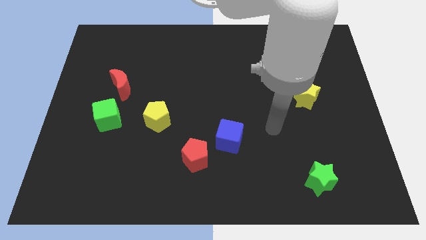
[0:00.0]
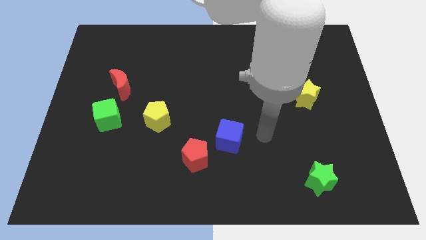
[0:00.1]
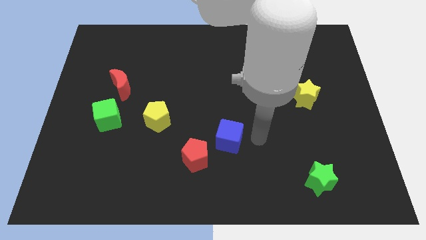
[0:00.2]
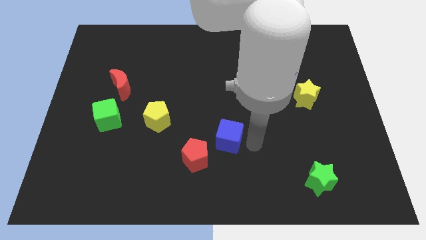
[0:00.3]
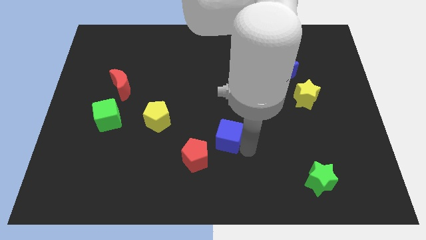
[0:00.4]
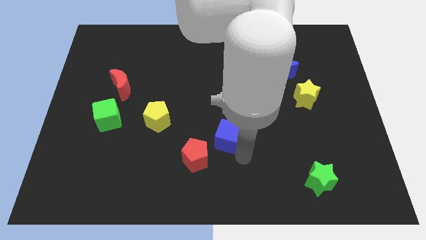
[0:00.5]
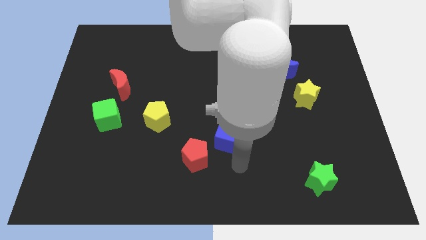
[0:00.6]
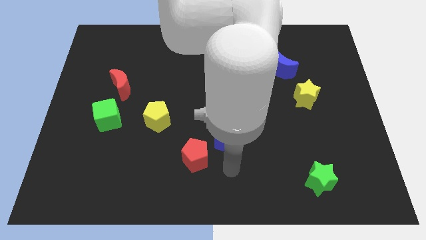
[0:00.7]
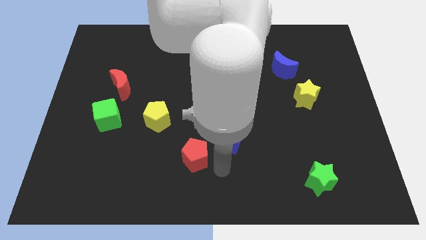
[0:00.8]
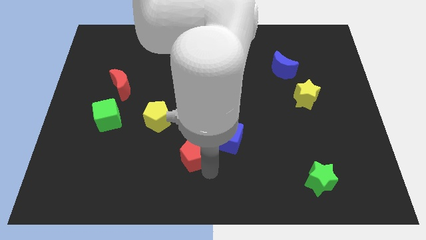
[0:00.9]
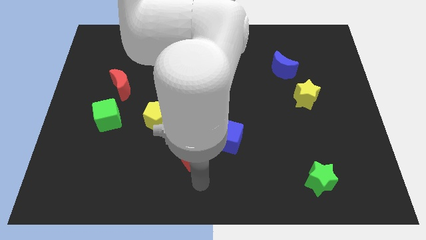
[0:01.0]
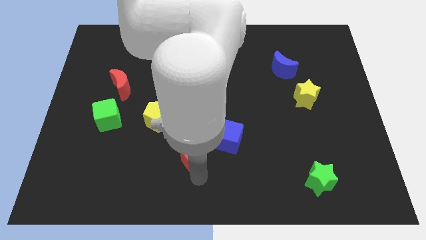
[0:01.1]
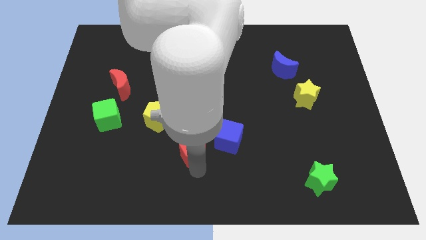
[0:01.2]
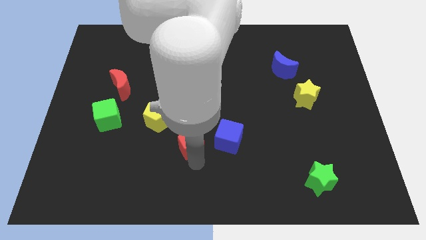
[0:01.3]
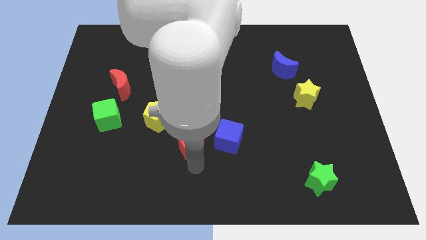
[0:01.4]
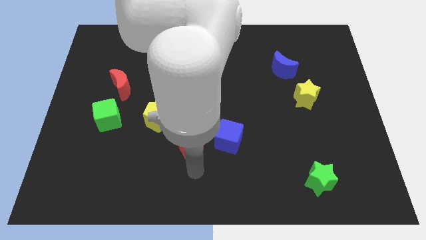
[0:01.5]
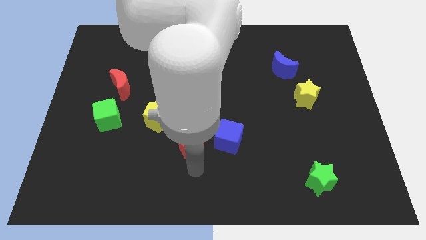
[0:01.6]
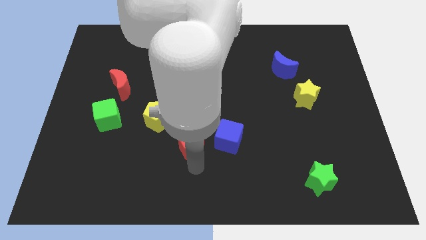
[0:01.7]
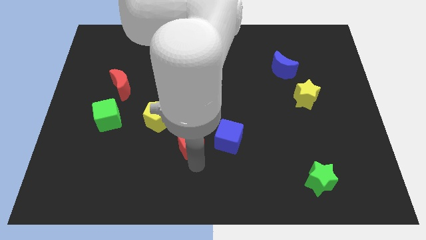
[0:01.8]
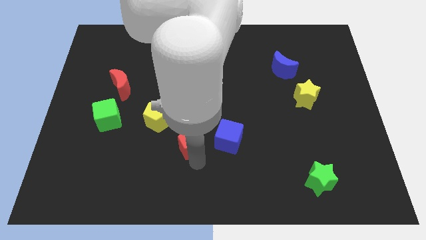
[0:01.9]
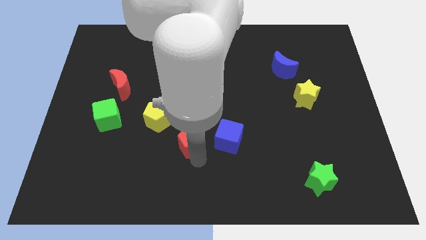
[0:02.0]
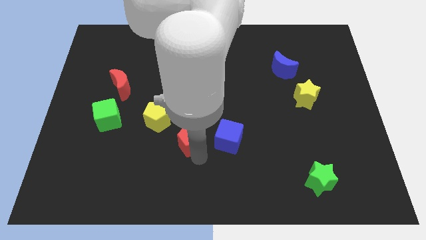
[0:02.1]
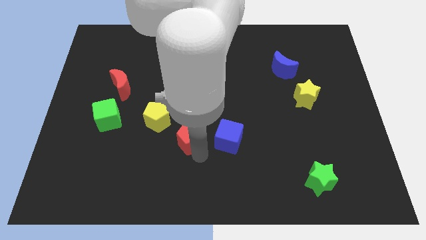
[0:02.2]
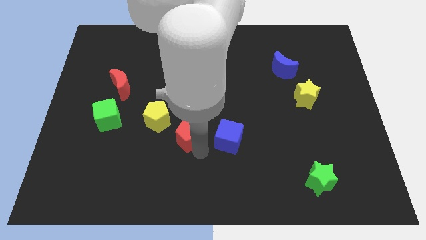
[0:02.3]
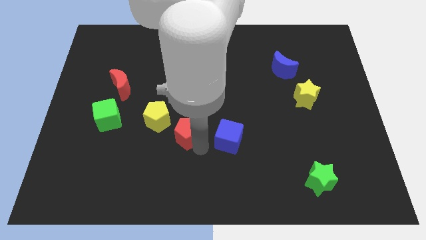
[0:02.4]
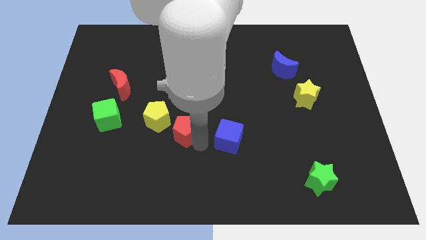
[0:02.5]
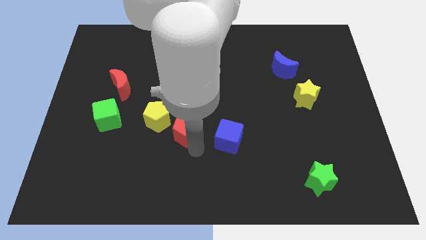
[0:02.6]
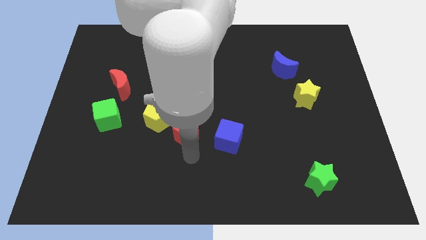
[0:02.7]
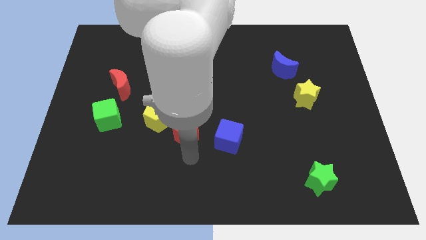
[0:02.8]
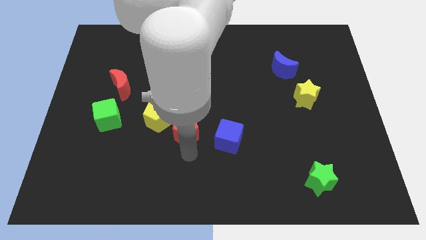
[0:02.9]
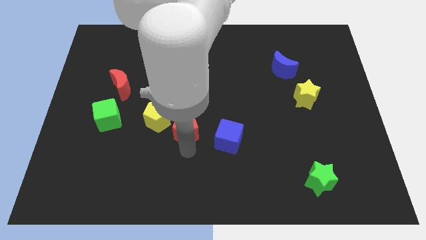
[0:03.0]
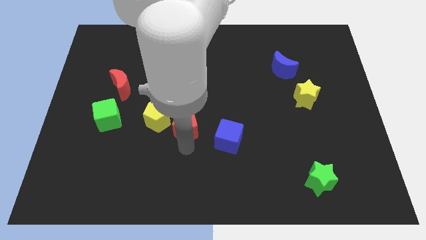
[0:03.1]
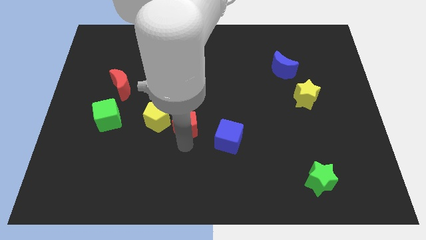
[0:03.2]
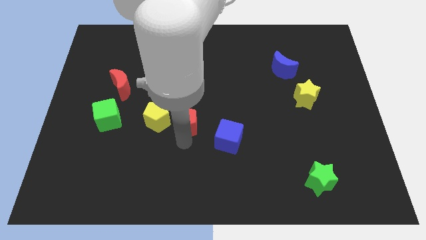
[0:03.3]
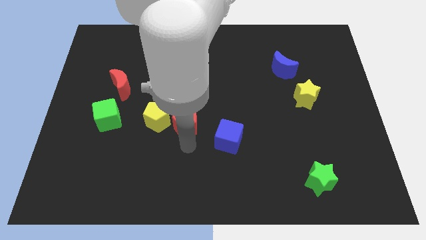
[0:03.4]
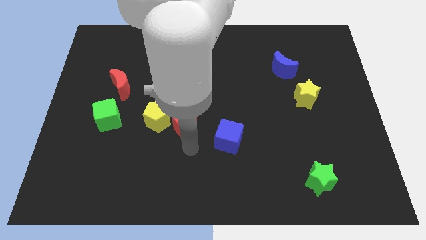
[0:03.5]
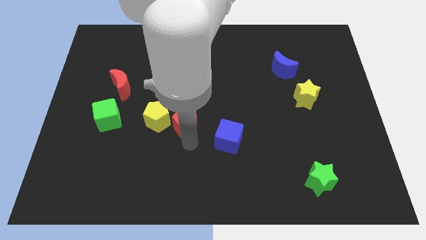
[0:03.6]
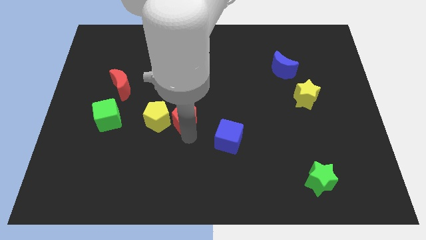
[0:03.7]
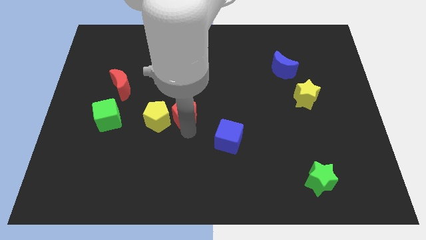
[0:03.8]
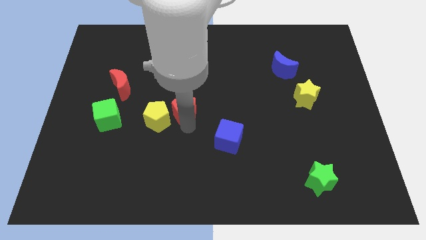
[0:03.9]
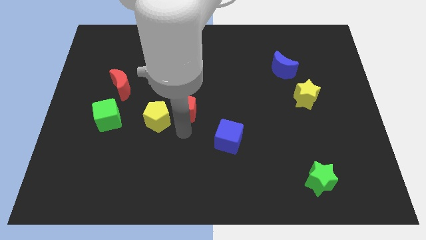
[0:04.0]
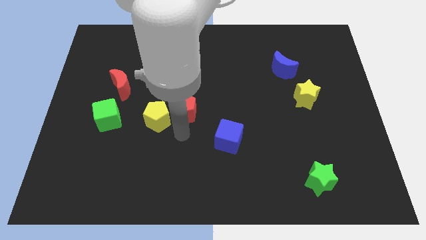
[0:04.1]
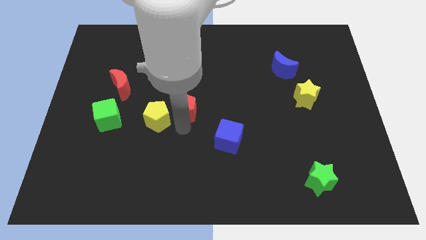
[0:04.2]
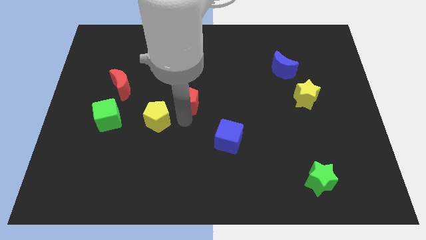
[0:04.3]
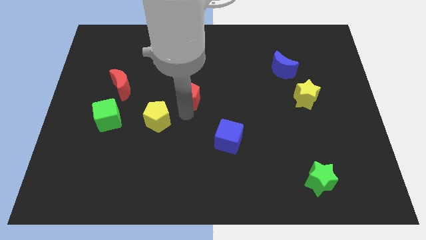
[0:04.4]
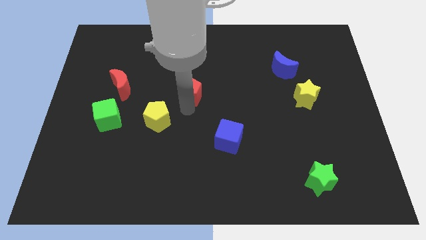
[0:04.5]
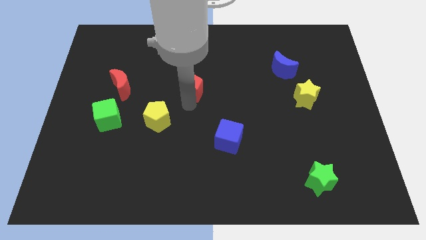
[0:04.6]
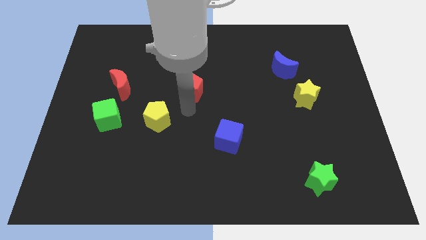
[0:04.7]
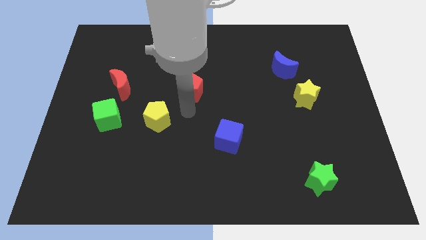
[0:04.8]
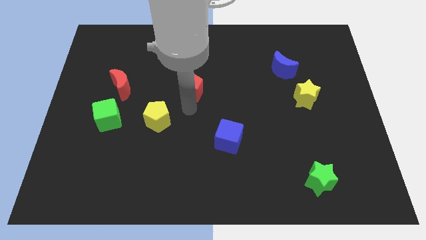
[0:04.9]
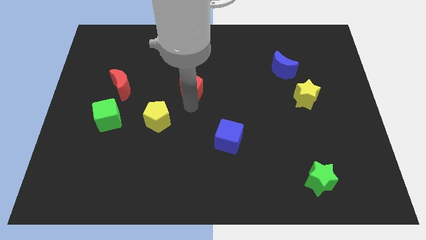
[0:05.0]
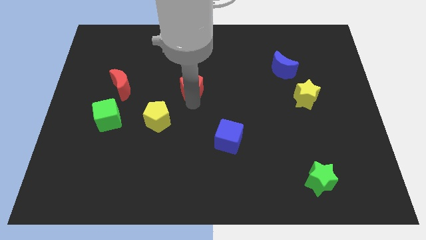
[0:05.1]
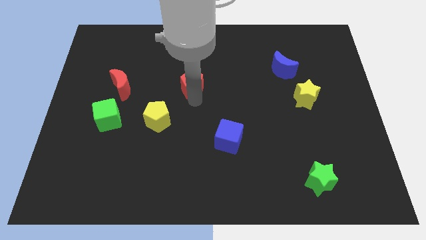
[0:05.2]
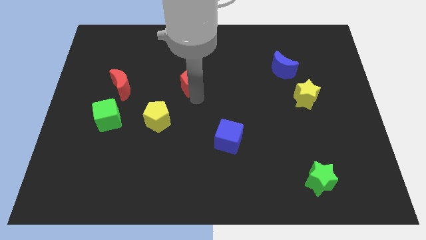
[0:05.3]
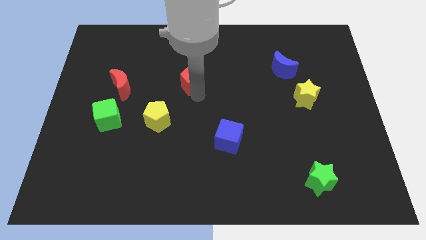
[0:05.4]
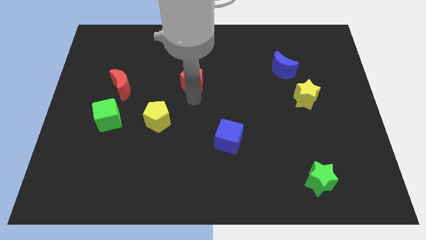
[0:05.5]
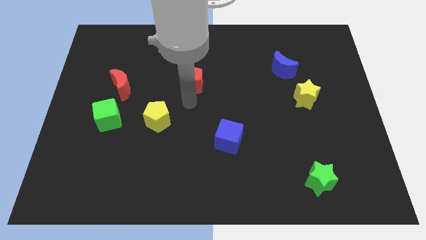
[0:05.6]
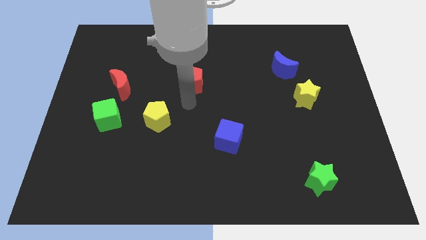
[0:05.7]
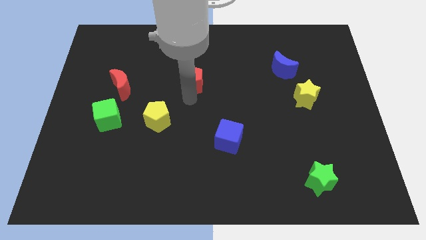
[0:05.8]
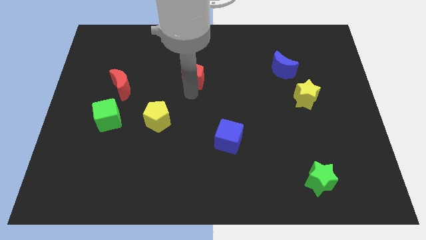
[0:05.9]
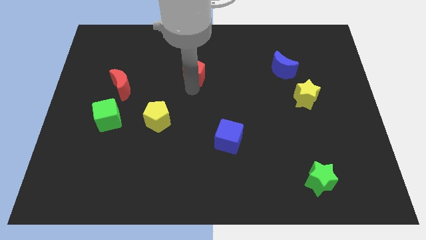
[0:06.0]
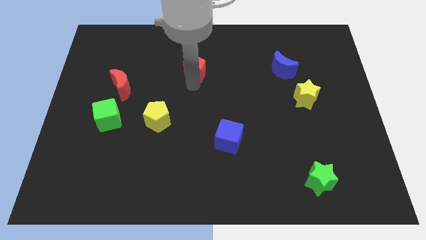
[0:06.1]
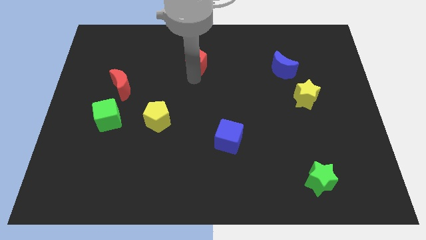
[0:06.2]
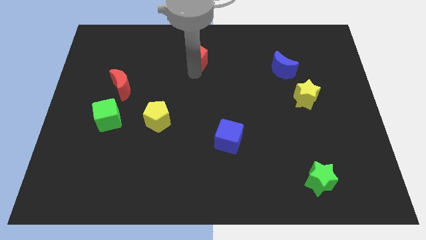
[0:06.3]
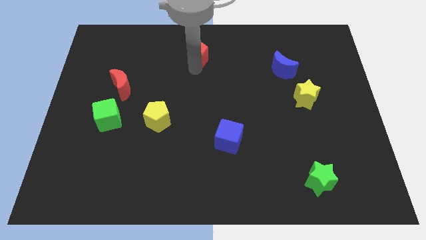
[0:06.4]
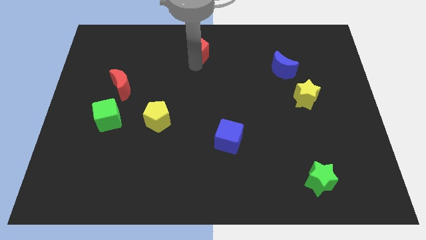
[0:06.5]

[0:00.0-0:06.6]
slide the red pentagon to the top side
